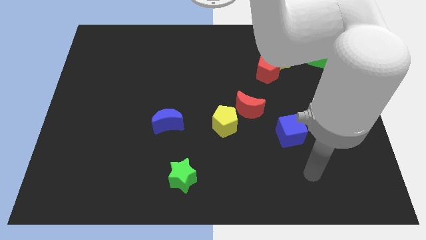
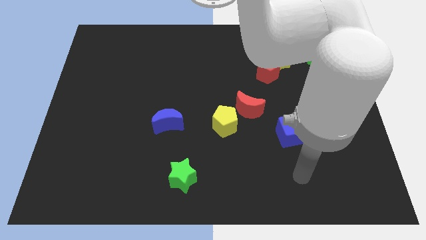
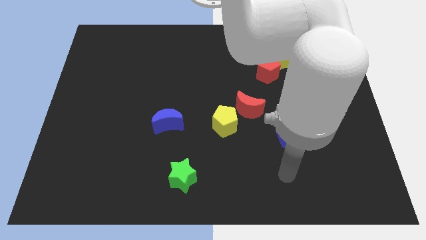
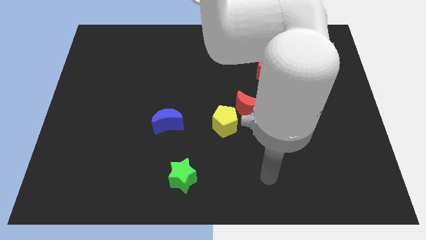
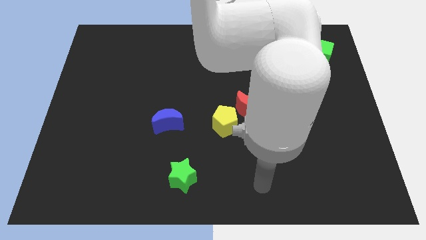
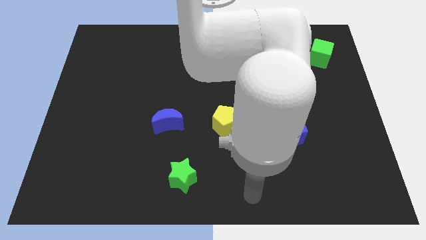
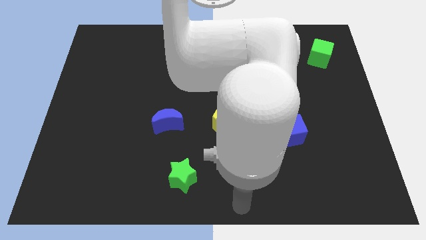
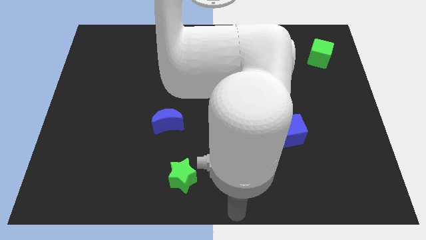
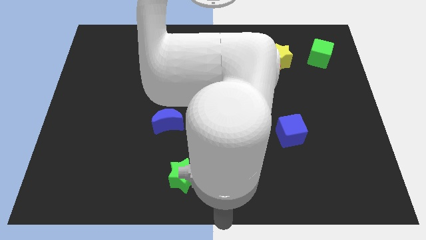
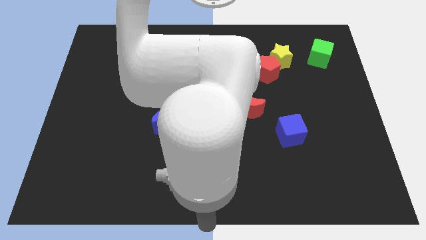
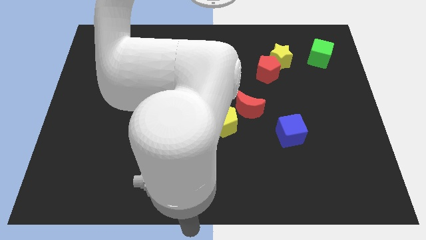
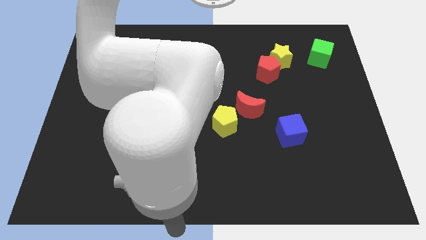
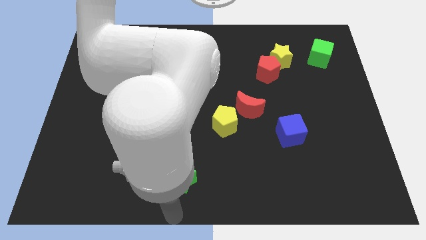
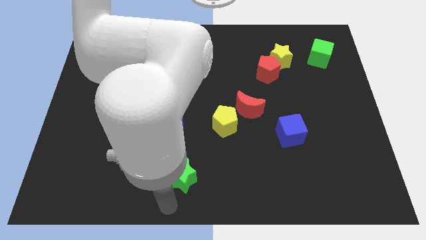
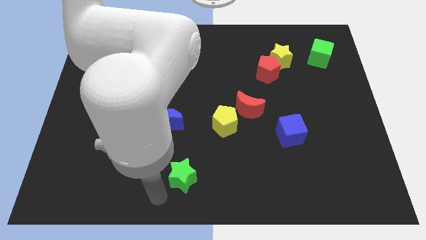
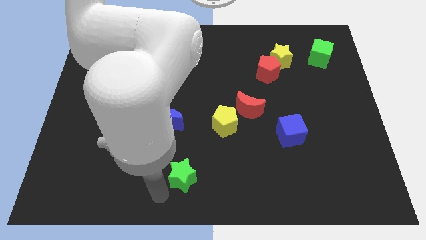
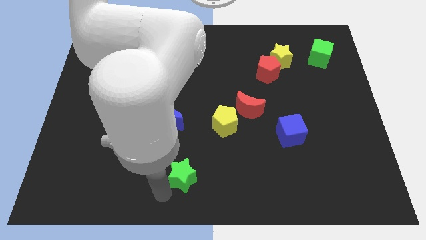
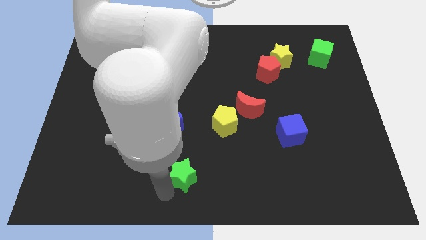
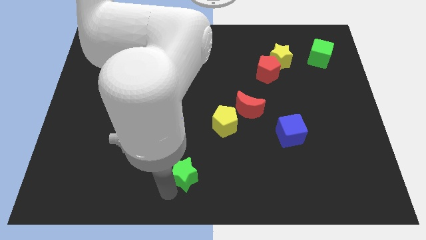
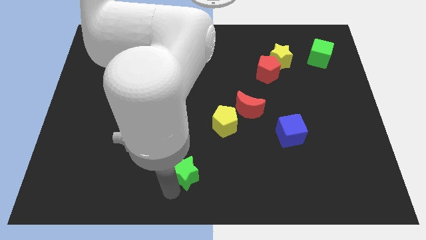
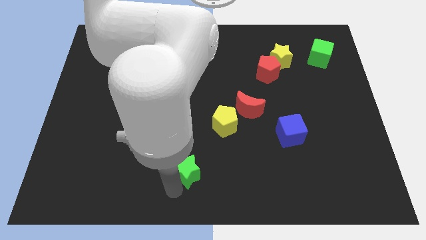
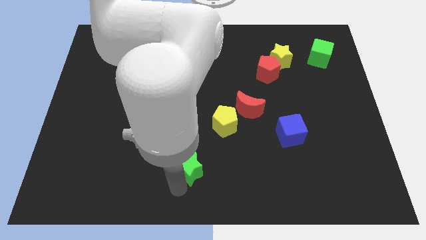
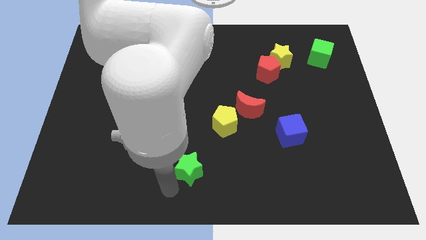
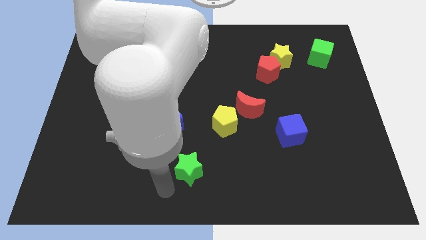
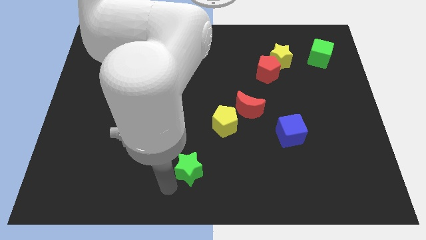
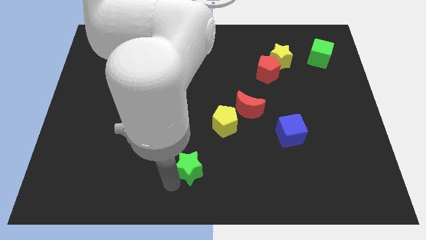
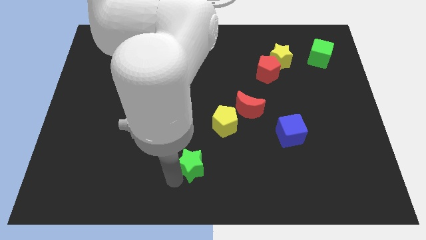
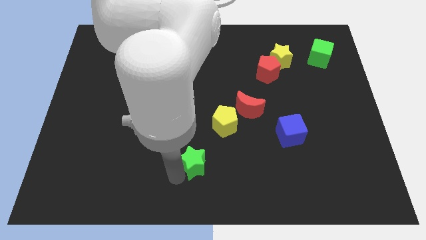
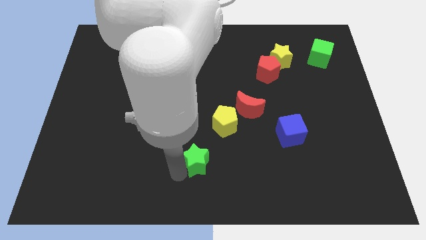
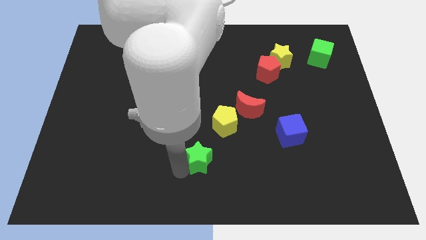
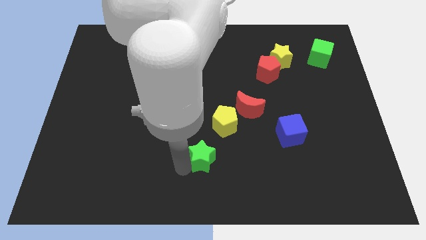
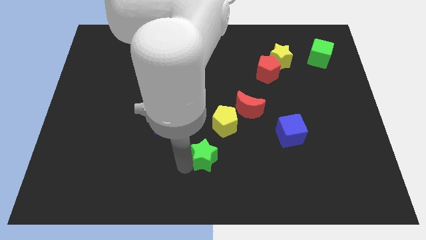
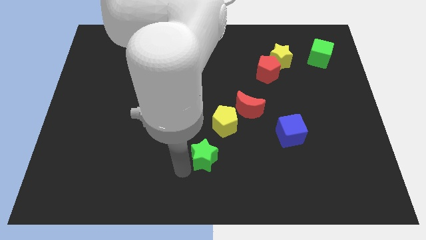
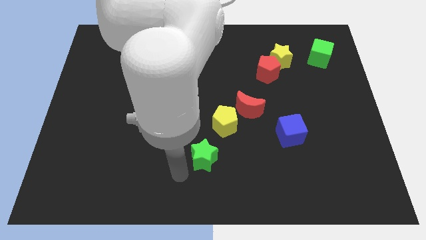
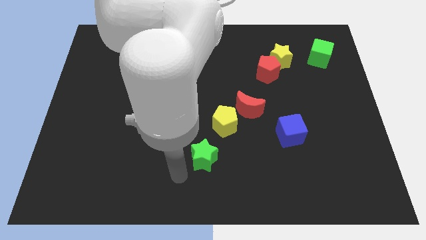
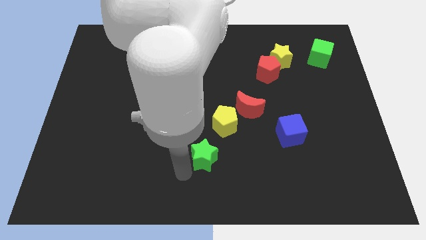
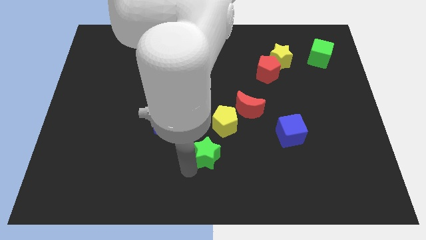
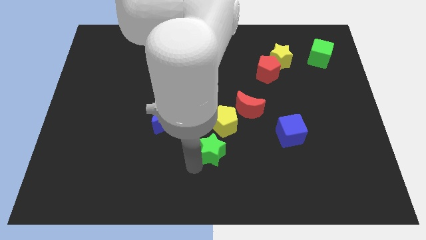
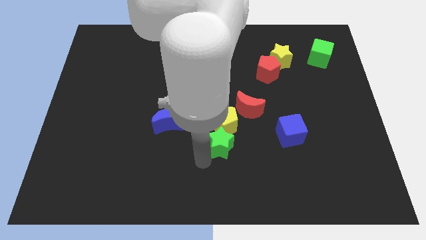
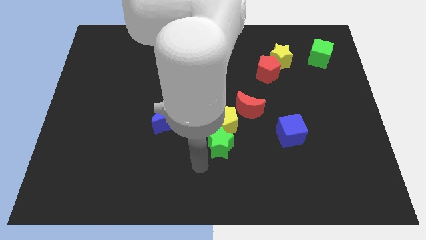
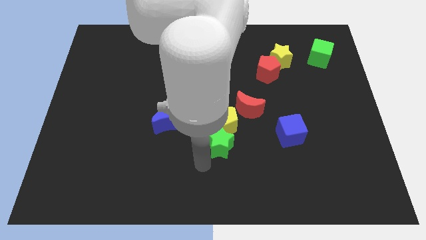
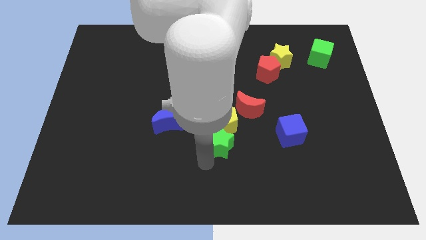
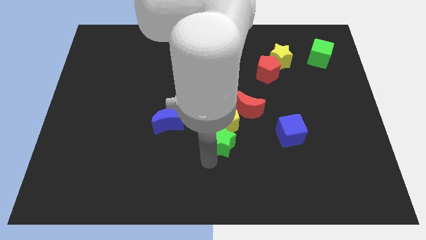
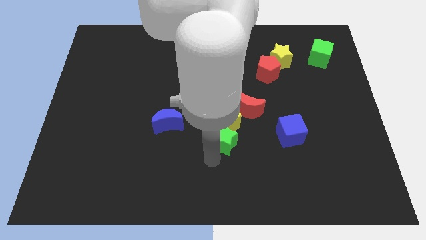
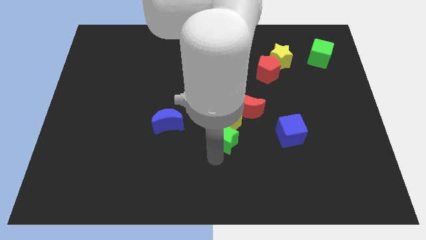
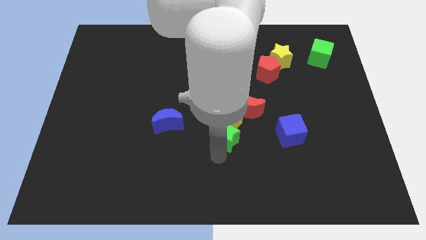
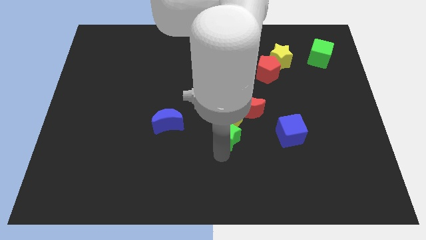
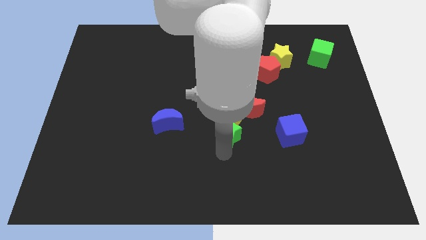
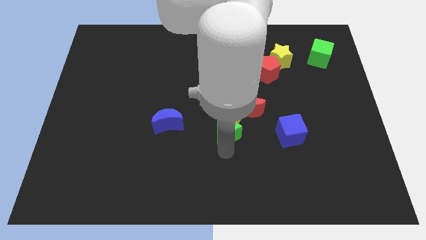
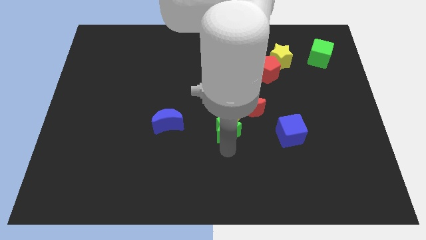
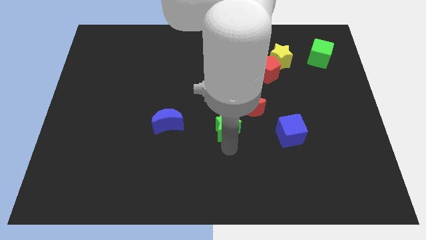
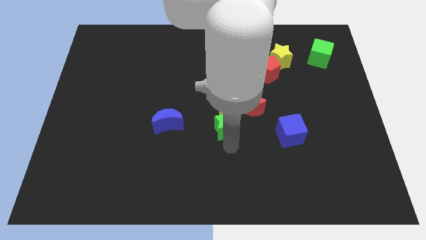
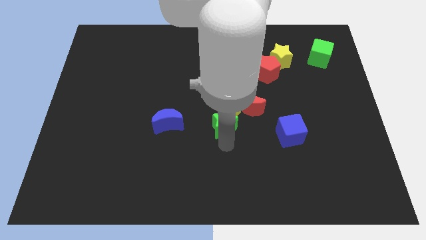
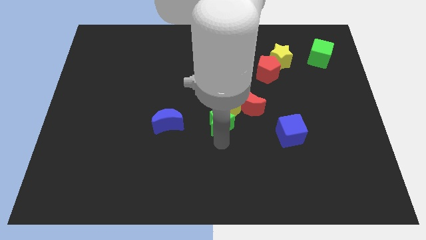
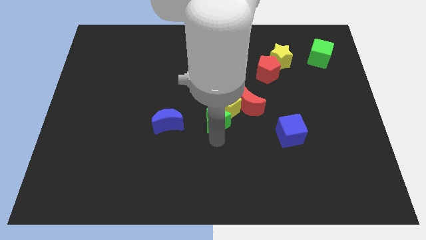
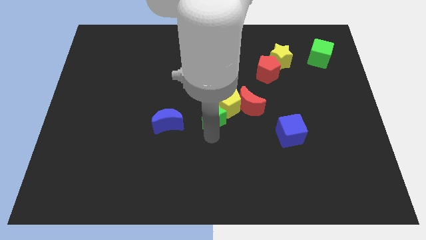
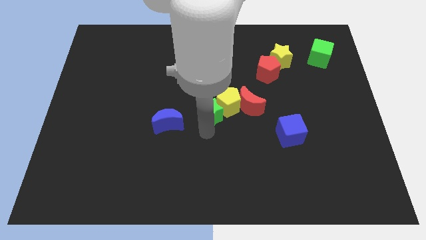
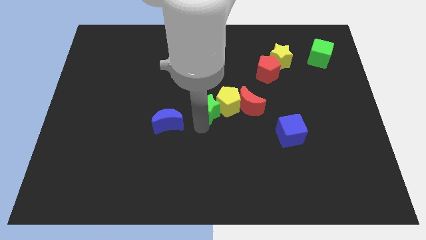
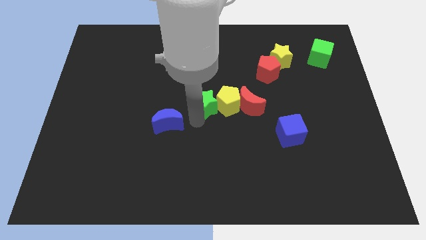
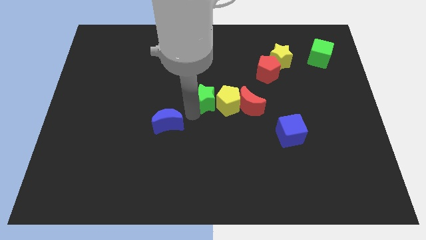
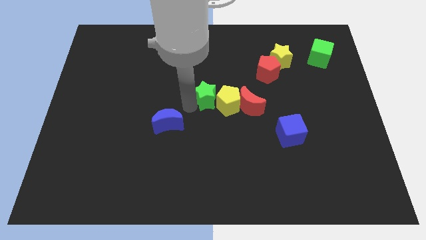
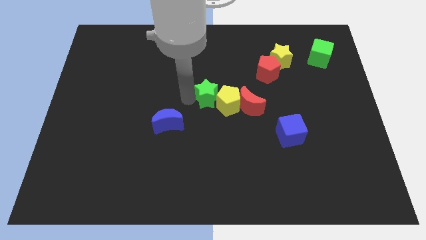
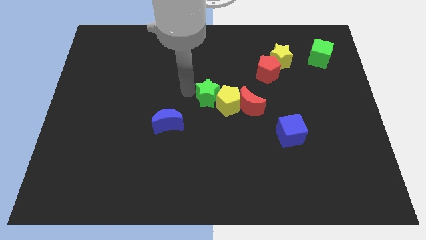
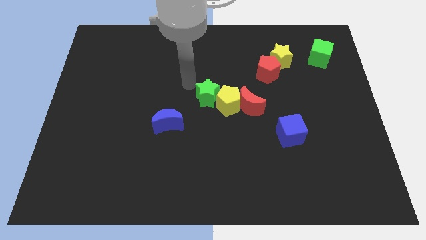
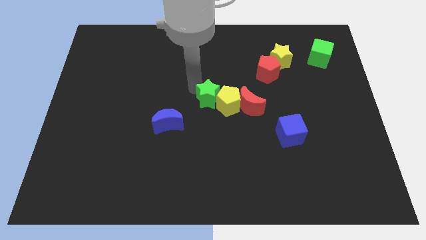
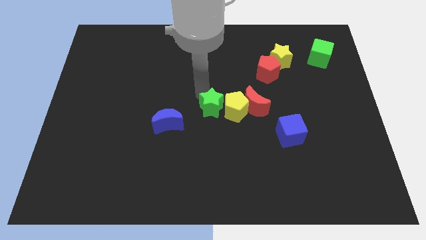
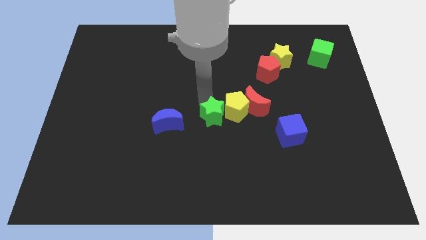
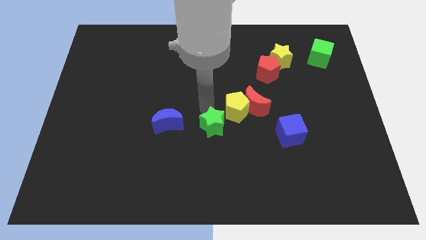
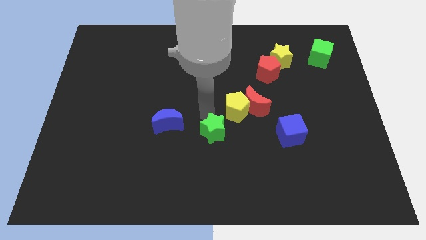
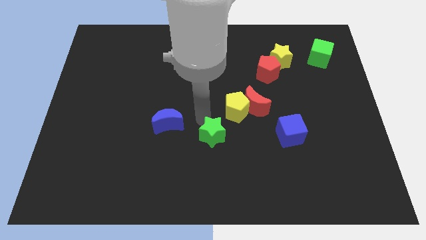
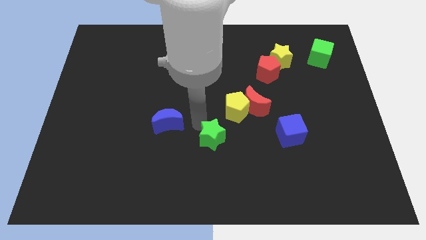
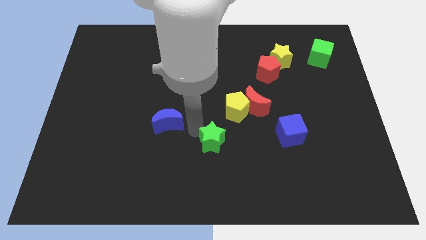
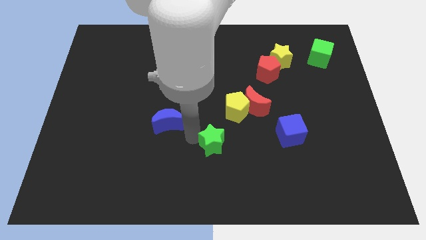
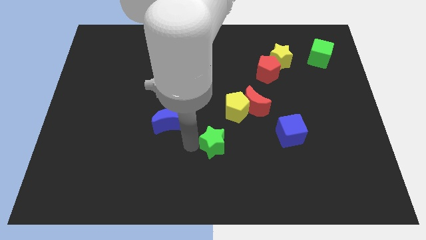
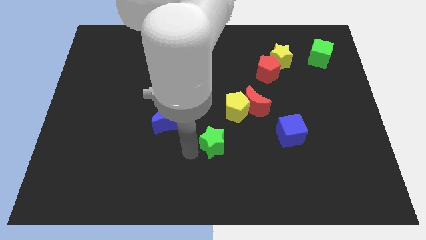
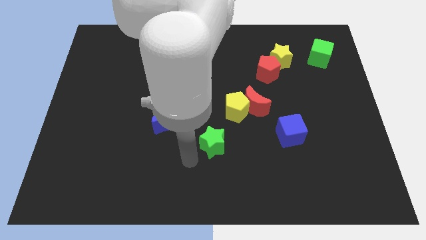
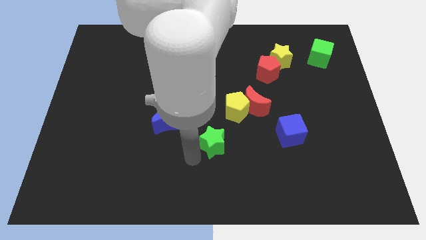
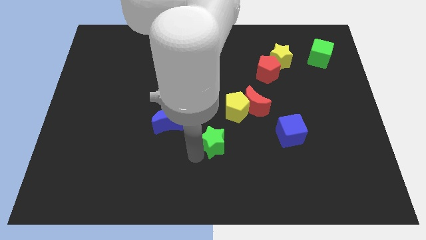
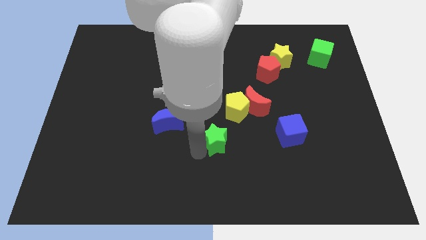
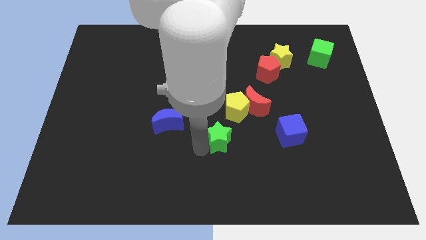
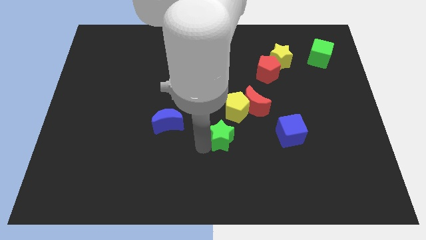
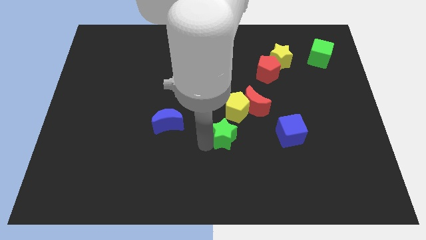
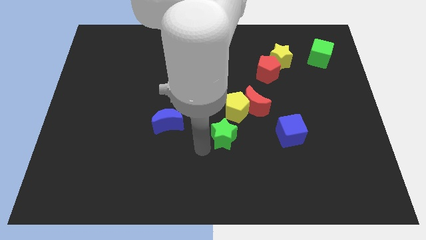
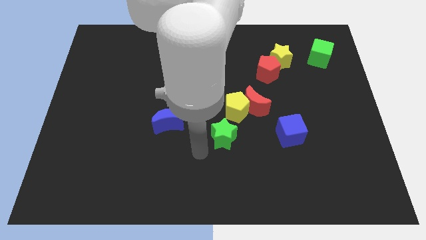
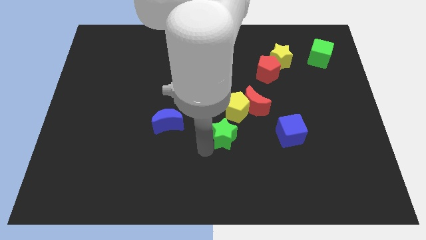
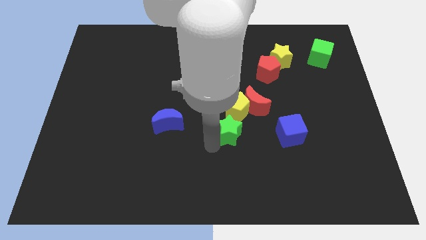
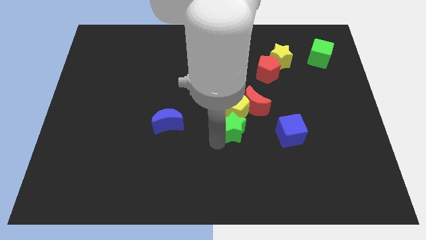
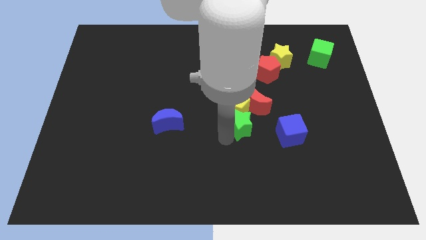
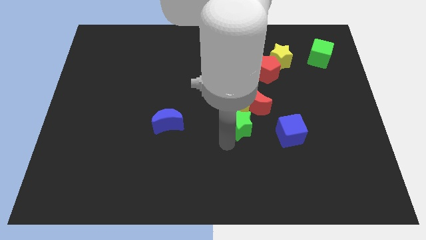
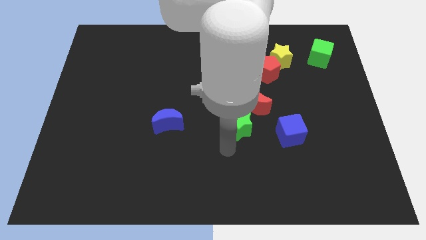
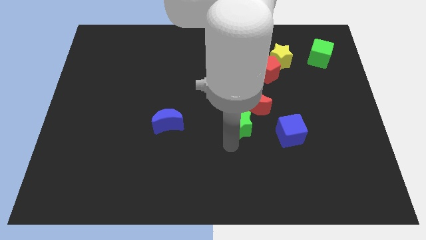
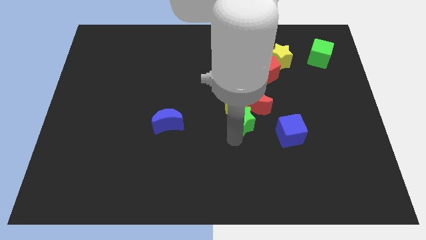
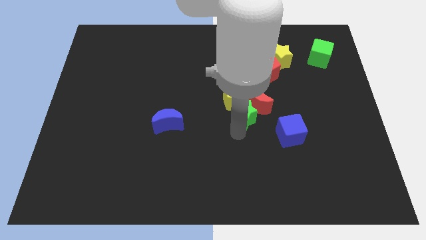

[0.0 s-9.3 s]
push the green star close to the red moon
